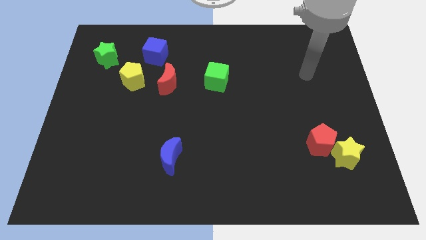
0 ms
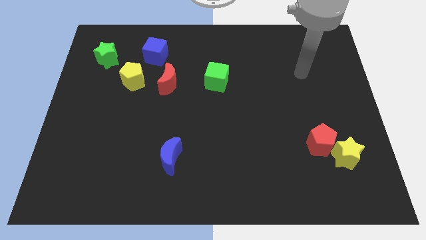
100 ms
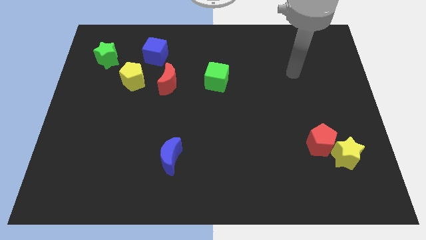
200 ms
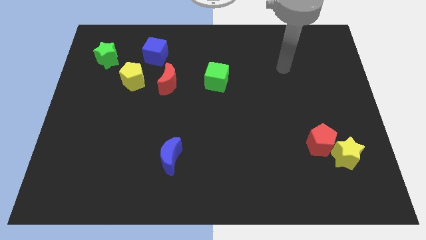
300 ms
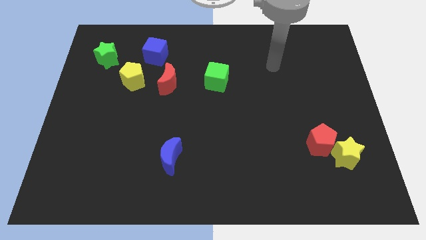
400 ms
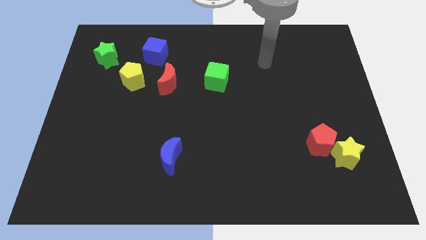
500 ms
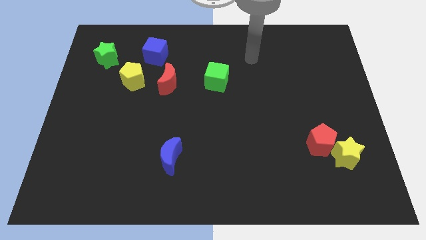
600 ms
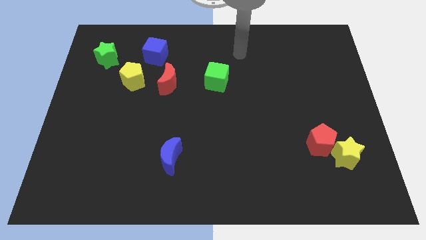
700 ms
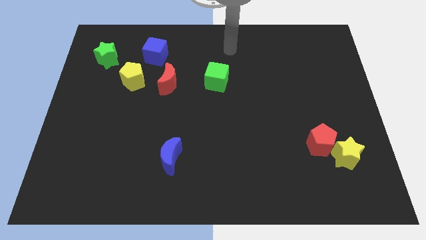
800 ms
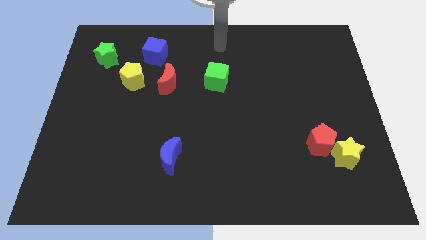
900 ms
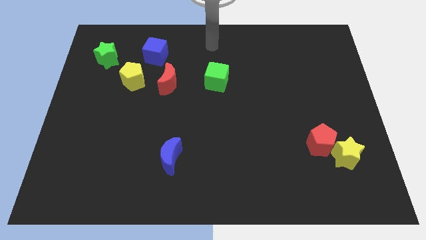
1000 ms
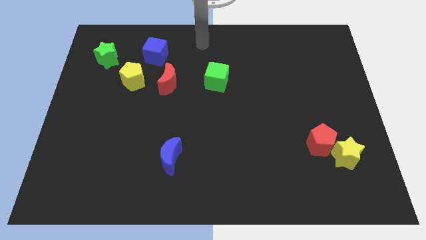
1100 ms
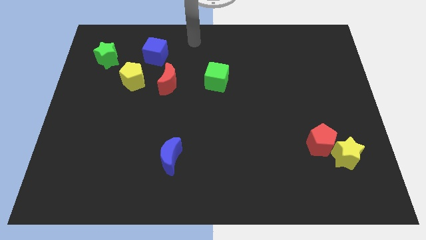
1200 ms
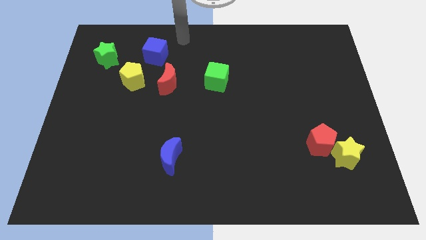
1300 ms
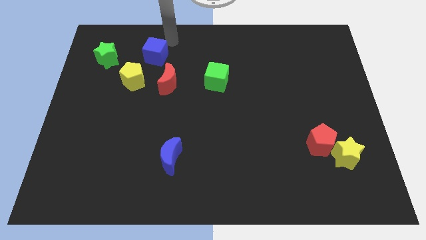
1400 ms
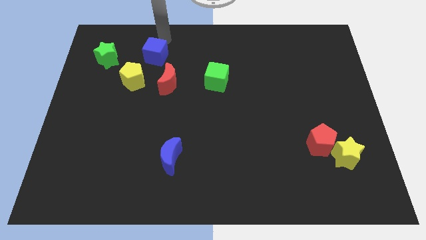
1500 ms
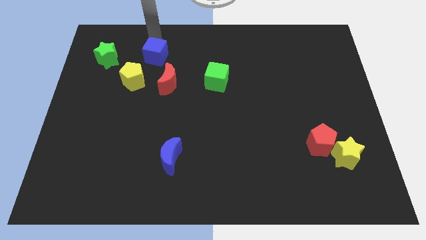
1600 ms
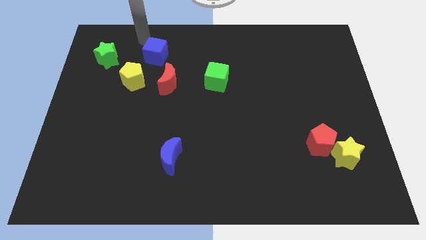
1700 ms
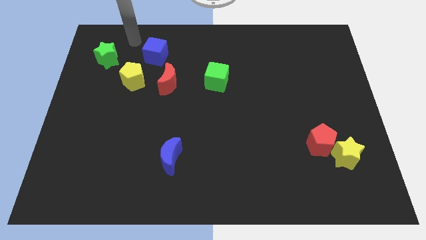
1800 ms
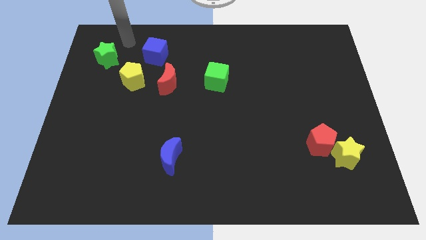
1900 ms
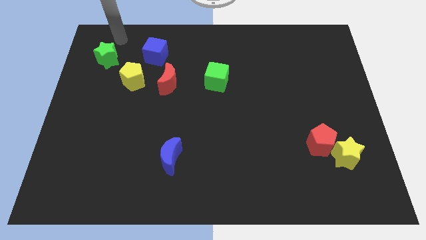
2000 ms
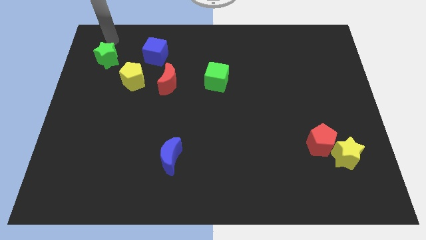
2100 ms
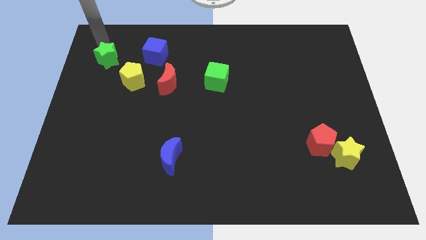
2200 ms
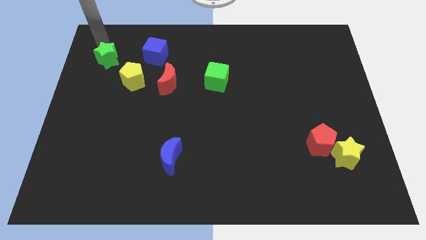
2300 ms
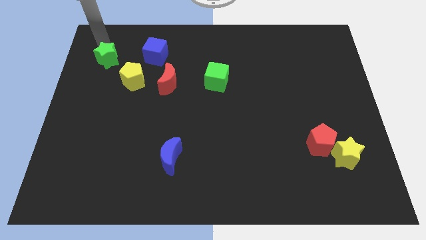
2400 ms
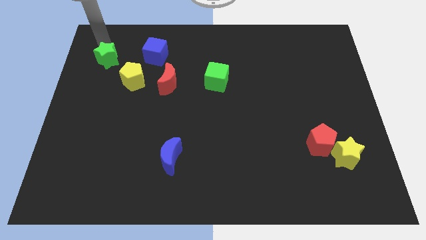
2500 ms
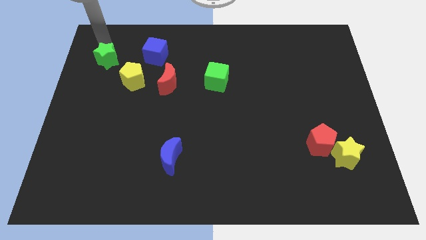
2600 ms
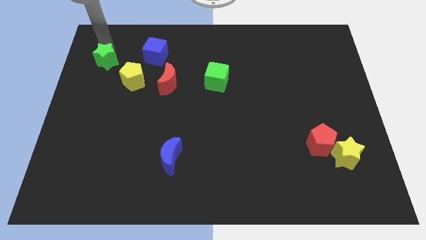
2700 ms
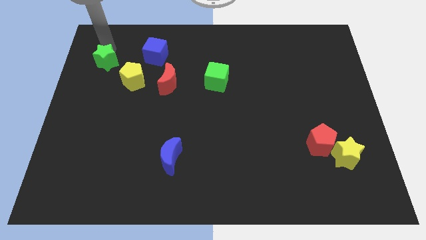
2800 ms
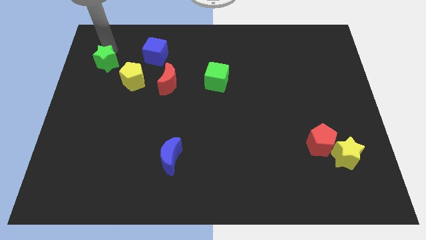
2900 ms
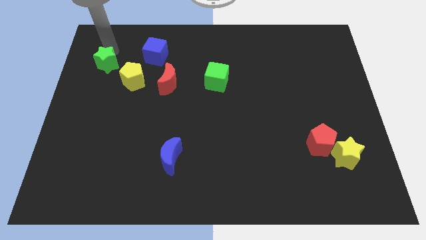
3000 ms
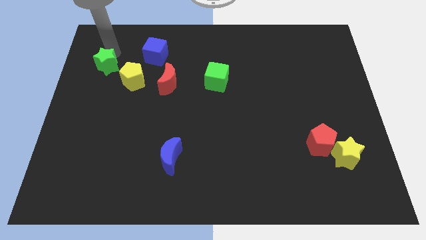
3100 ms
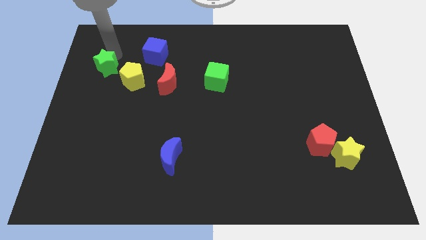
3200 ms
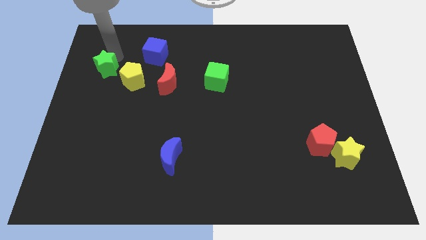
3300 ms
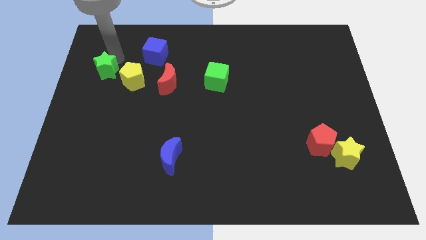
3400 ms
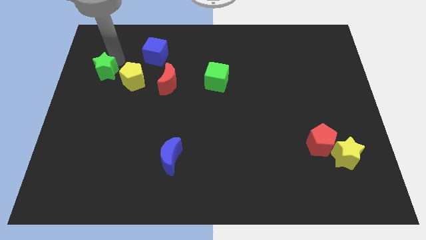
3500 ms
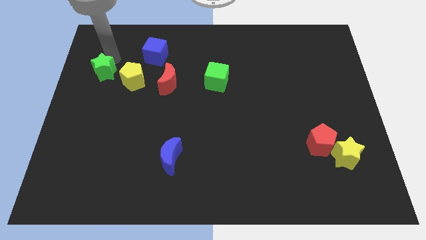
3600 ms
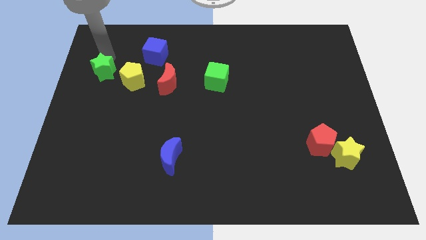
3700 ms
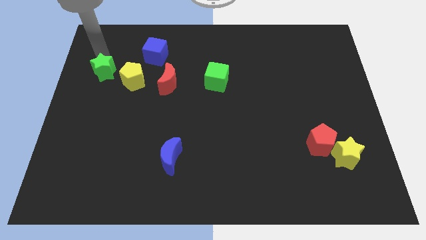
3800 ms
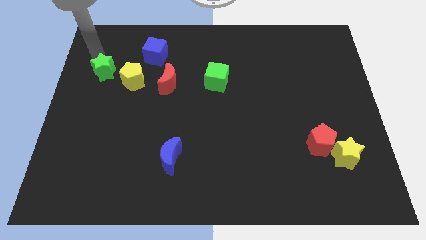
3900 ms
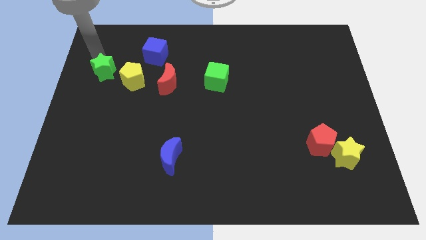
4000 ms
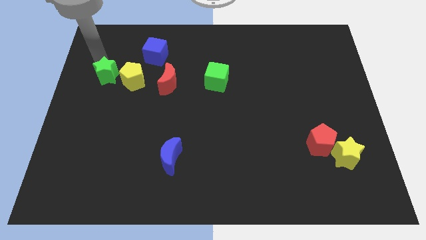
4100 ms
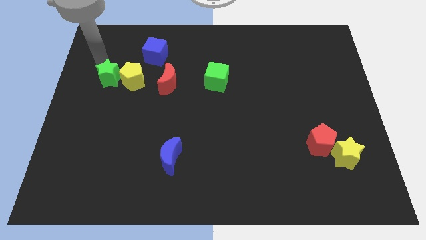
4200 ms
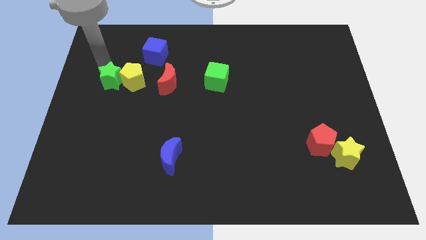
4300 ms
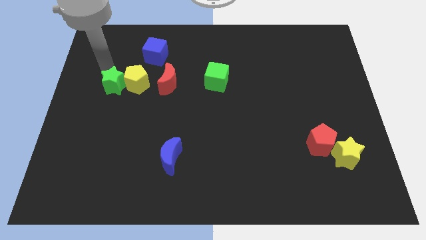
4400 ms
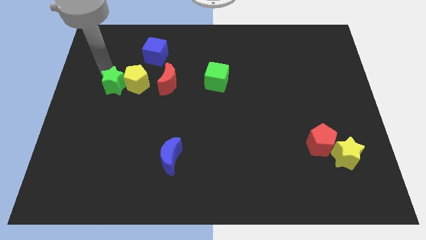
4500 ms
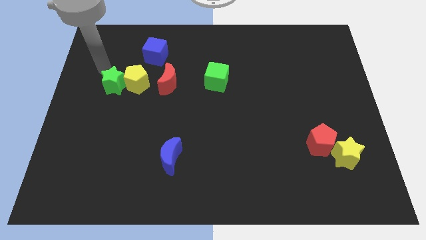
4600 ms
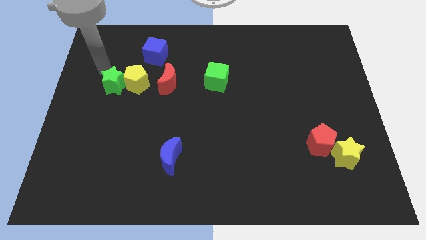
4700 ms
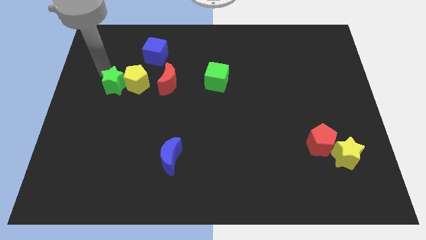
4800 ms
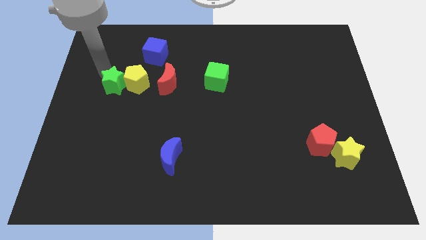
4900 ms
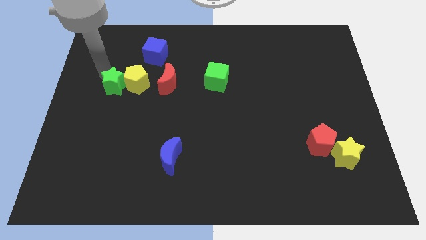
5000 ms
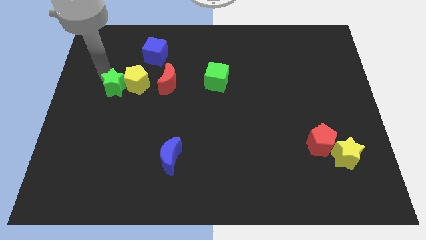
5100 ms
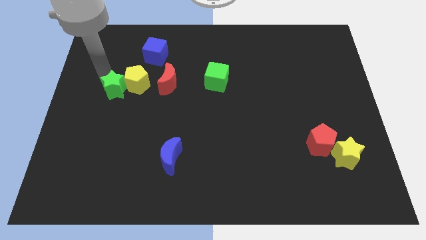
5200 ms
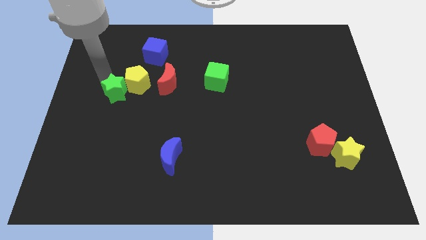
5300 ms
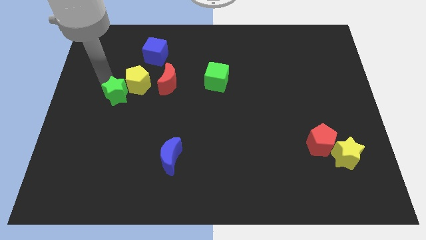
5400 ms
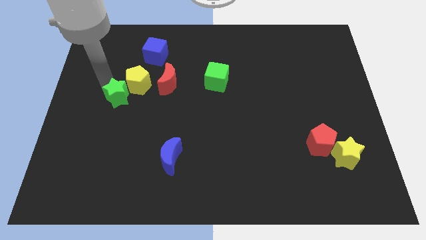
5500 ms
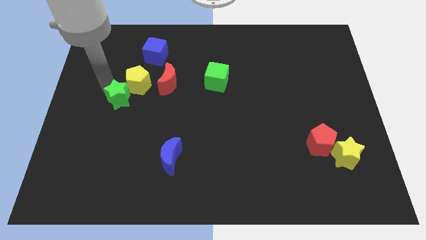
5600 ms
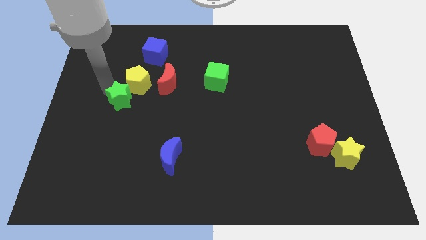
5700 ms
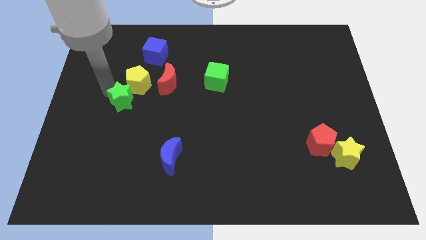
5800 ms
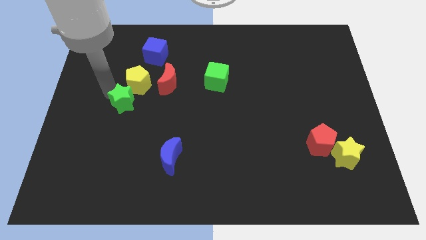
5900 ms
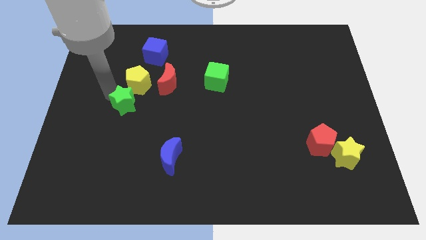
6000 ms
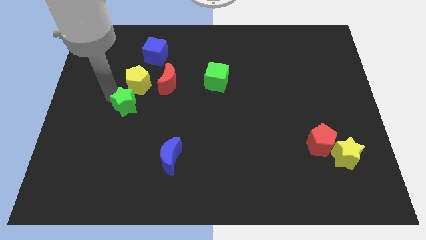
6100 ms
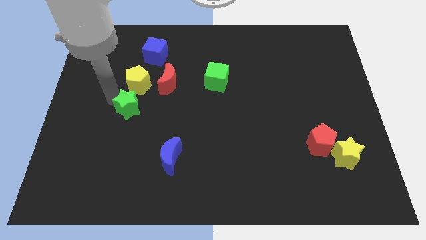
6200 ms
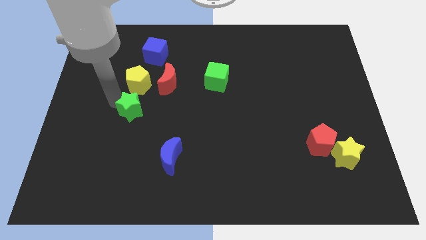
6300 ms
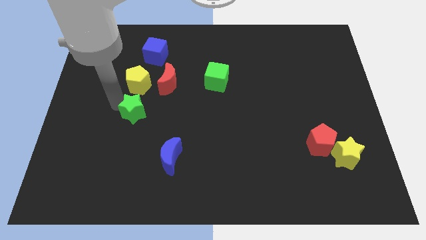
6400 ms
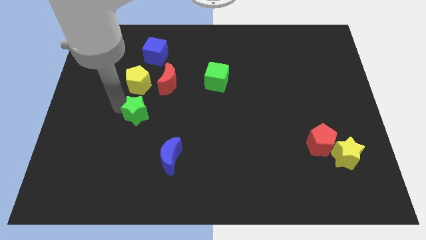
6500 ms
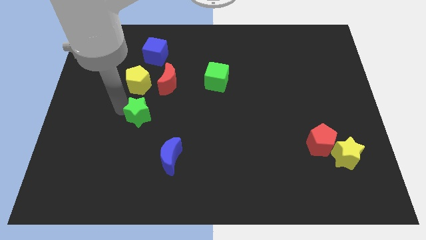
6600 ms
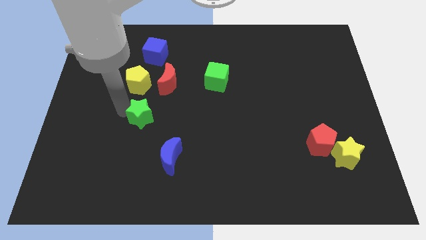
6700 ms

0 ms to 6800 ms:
slide the green star downwards and right diagonally

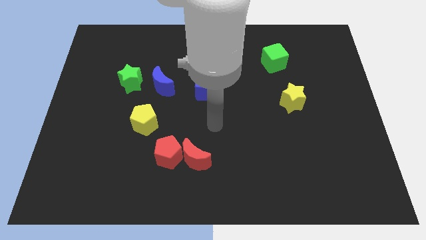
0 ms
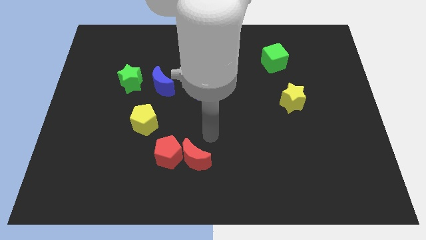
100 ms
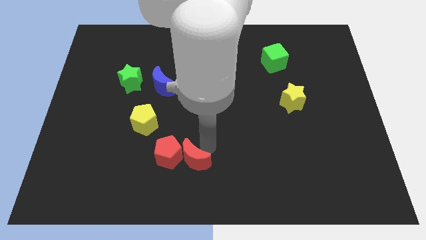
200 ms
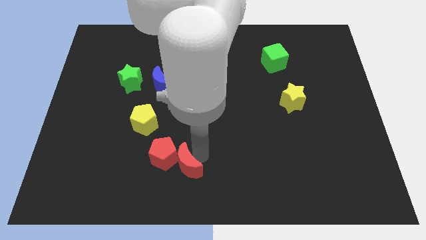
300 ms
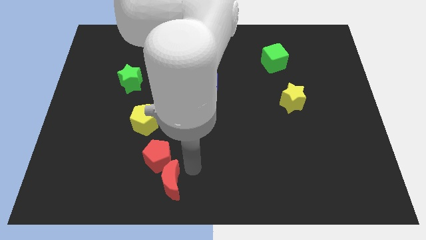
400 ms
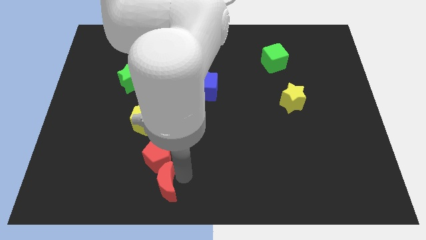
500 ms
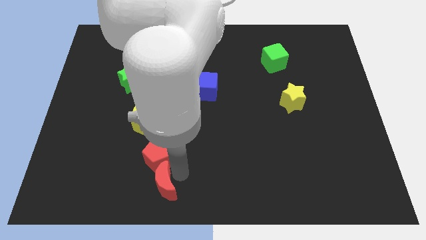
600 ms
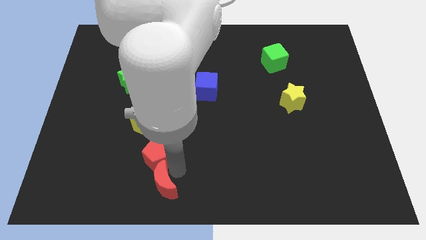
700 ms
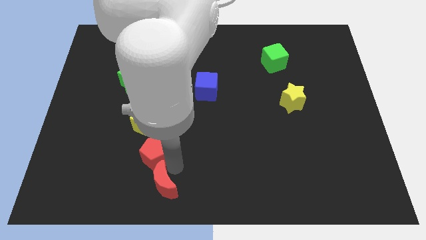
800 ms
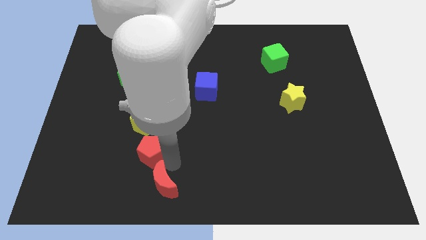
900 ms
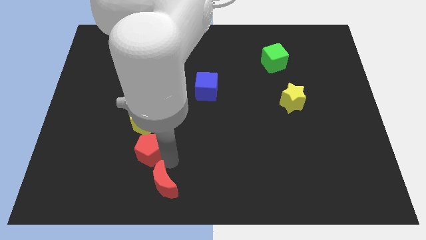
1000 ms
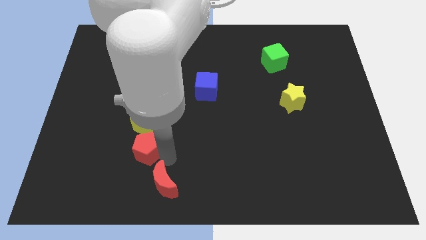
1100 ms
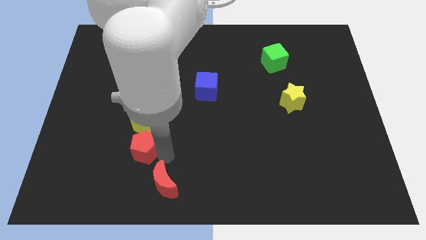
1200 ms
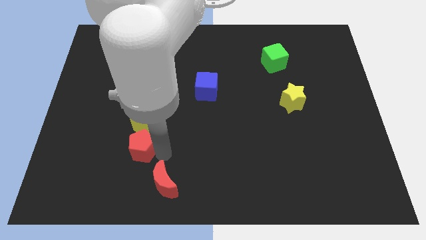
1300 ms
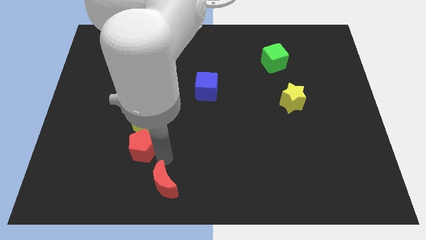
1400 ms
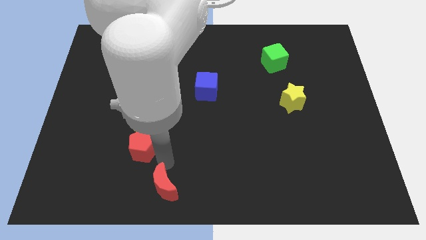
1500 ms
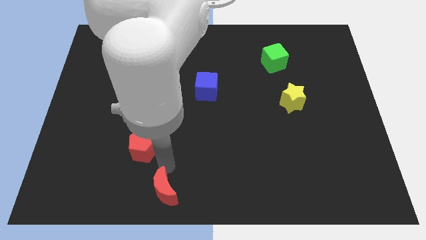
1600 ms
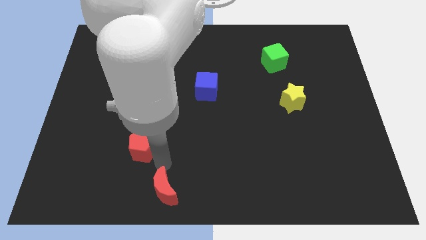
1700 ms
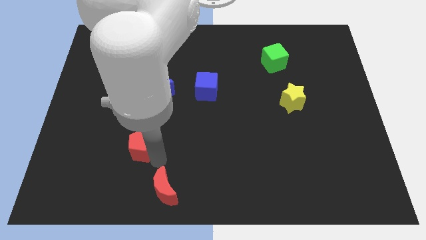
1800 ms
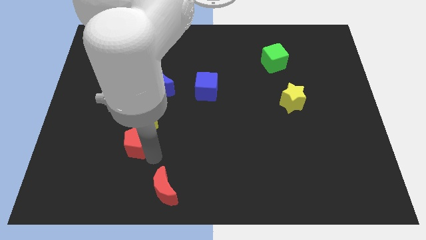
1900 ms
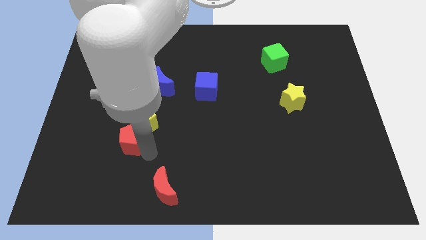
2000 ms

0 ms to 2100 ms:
slightly move the red pentagon up and then to the left
